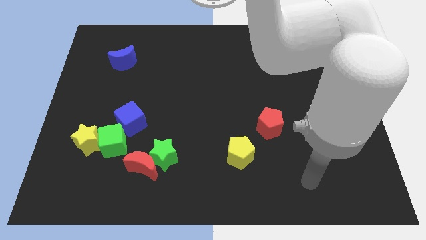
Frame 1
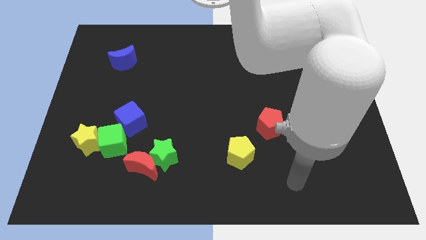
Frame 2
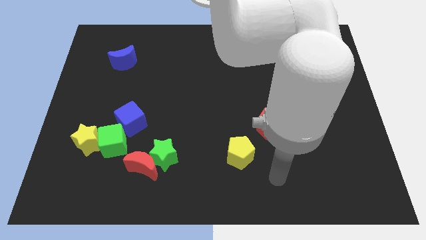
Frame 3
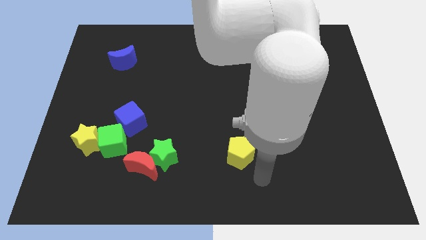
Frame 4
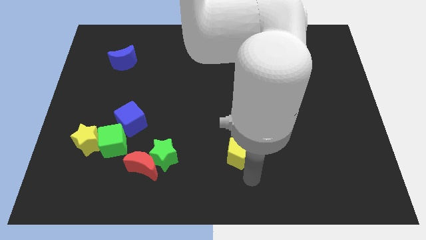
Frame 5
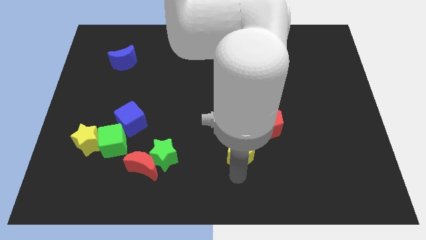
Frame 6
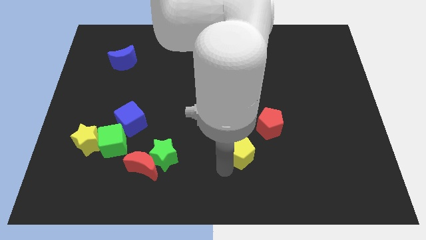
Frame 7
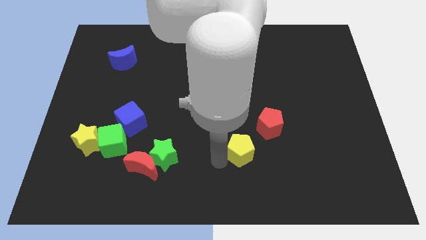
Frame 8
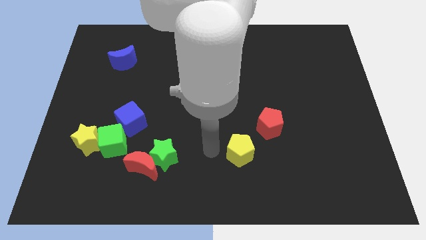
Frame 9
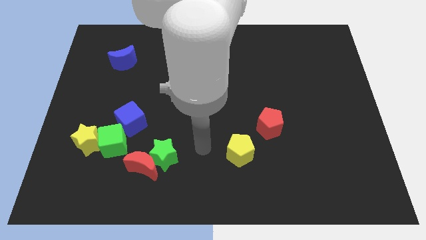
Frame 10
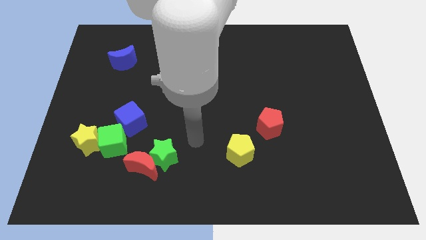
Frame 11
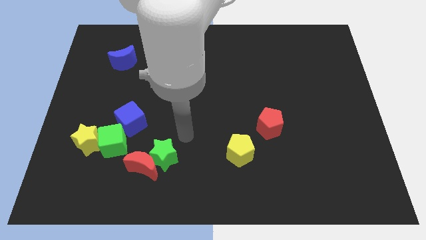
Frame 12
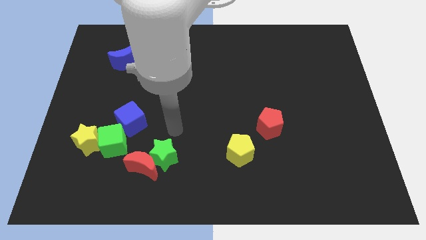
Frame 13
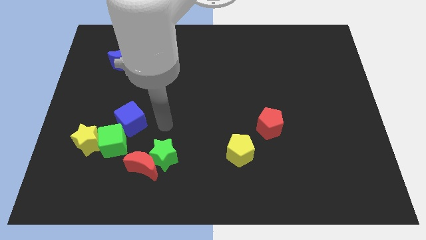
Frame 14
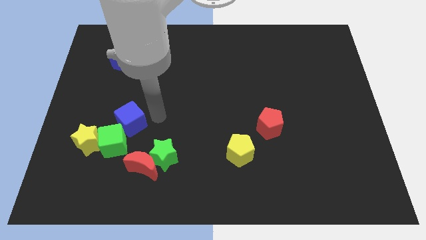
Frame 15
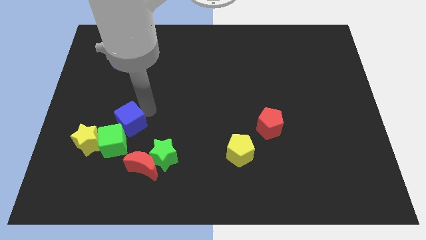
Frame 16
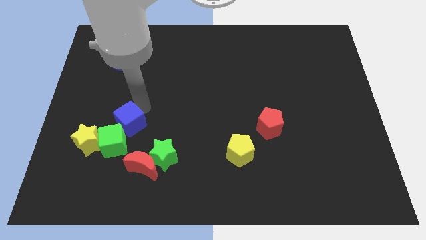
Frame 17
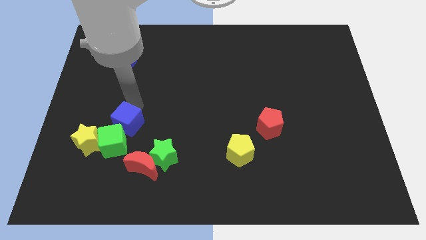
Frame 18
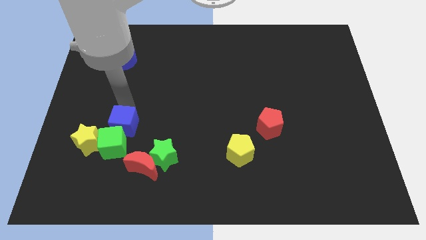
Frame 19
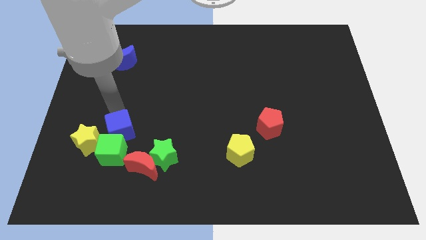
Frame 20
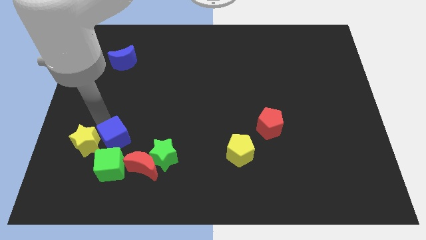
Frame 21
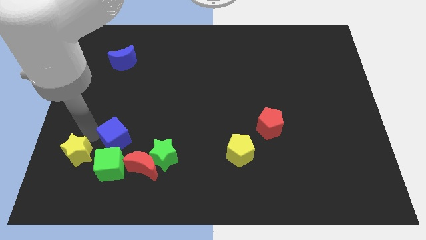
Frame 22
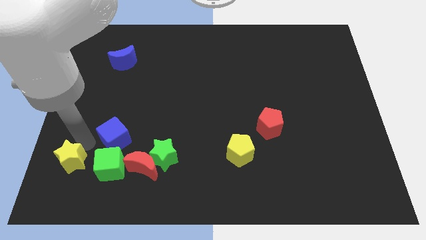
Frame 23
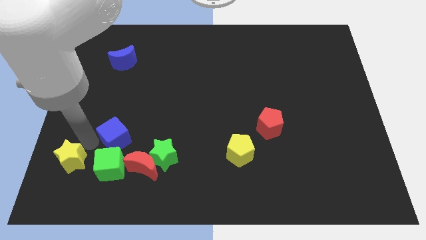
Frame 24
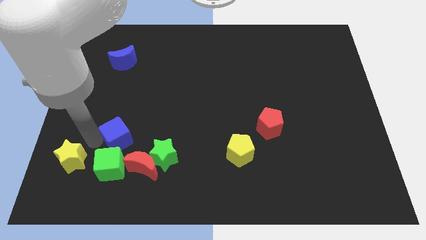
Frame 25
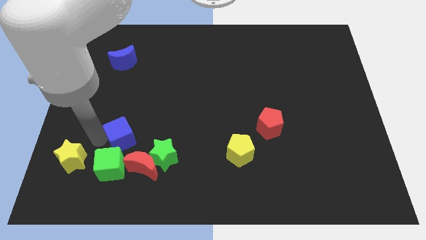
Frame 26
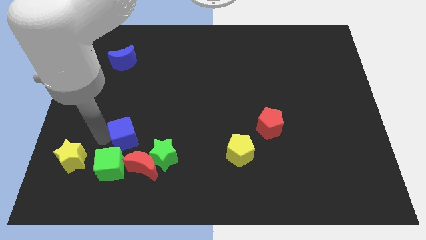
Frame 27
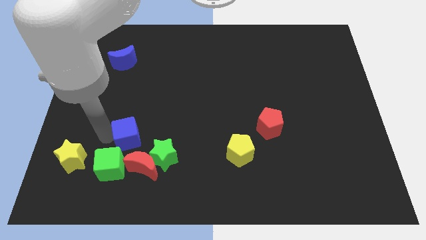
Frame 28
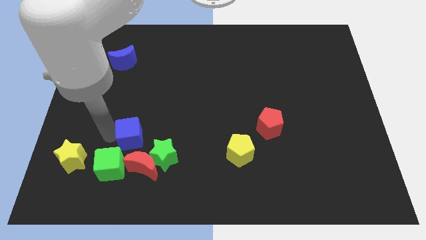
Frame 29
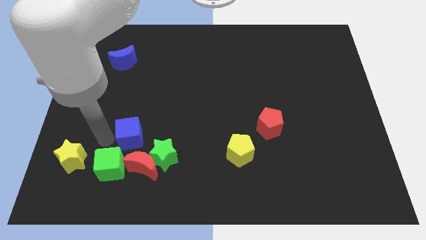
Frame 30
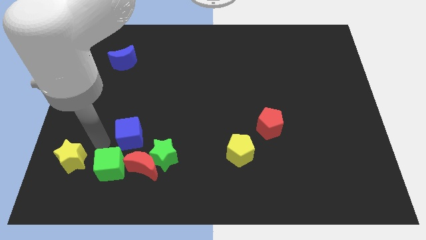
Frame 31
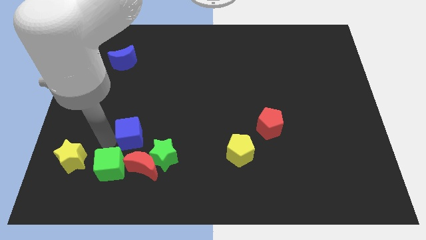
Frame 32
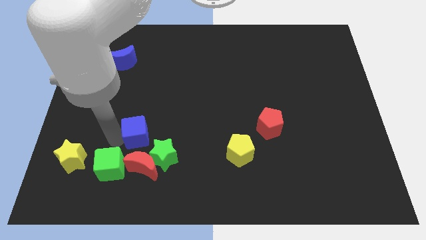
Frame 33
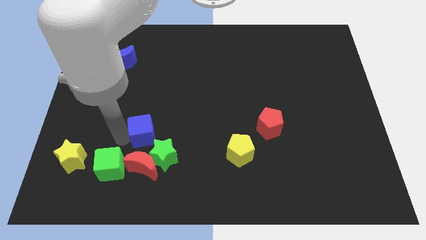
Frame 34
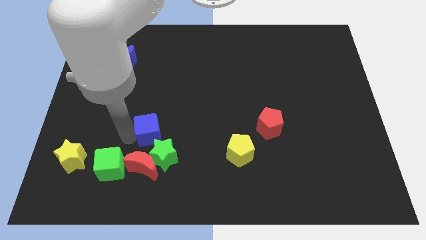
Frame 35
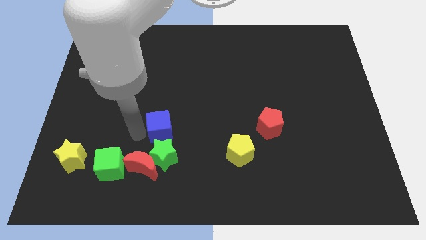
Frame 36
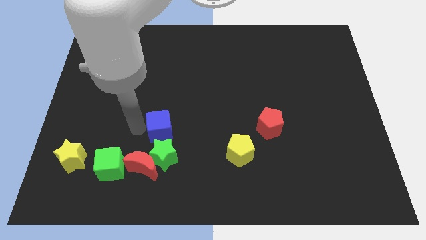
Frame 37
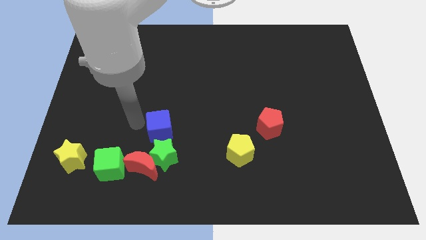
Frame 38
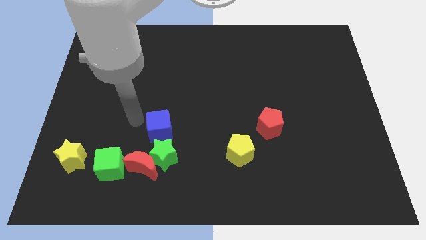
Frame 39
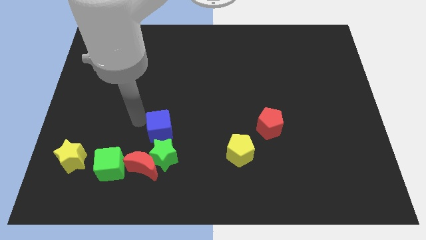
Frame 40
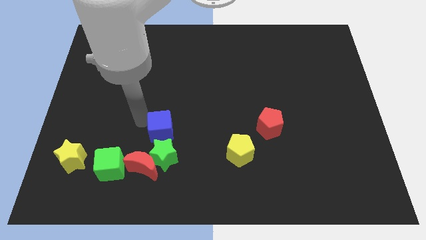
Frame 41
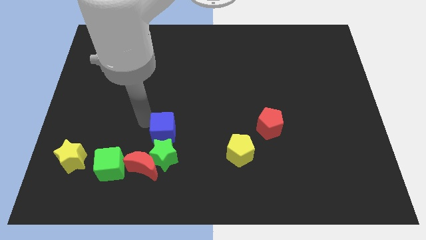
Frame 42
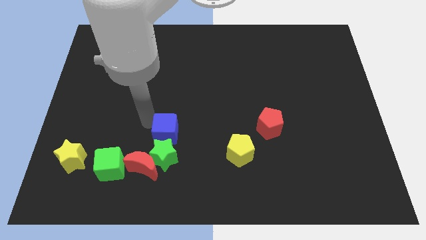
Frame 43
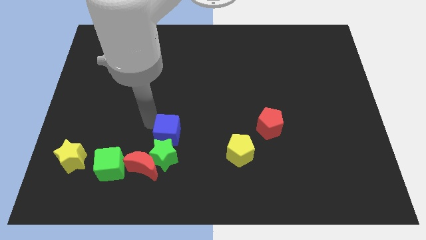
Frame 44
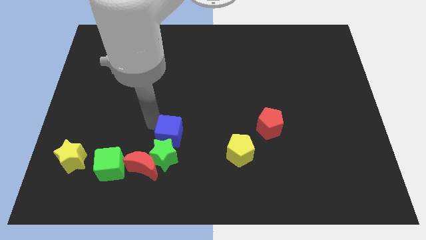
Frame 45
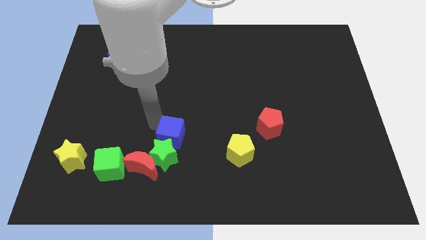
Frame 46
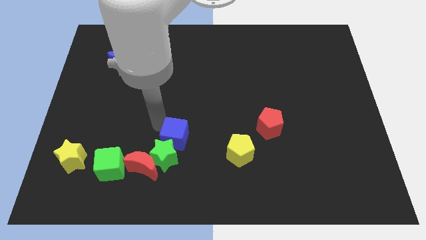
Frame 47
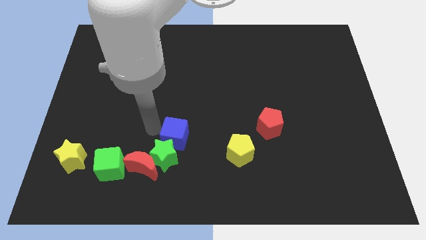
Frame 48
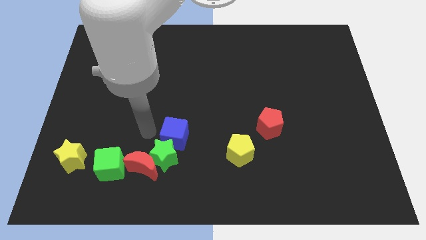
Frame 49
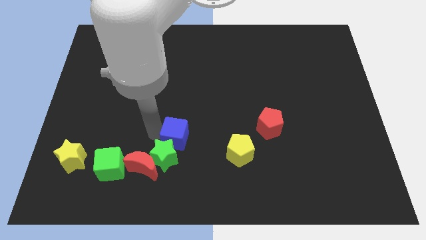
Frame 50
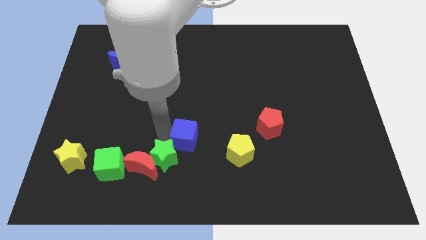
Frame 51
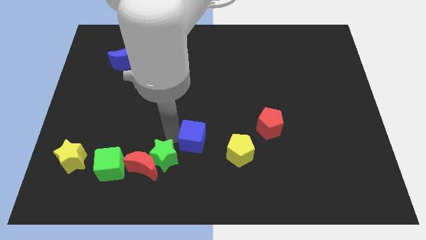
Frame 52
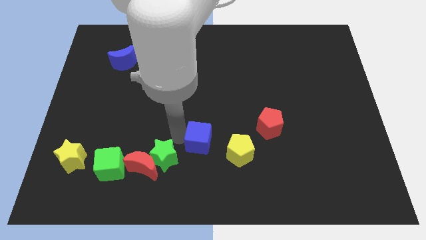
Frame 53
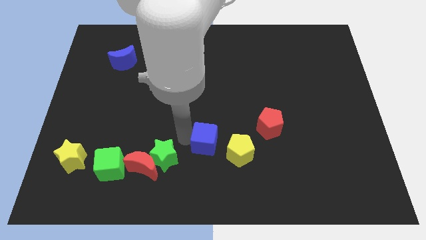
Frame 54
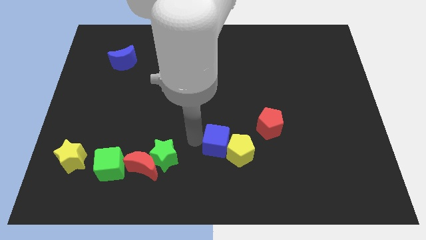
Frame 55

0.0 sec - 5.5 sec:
put the blue cube towards the yellow pentagon

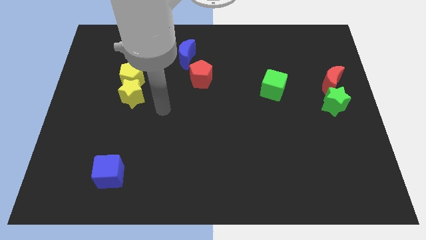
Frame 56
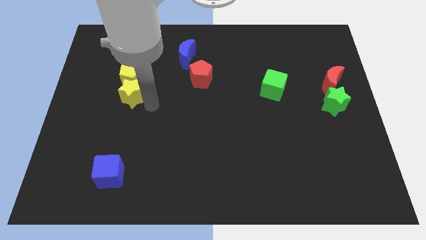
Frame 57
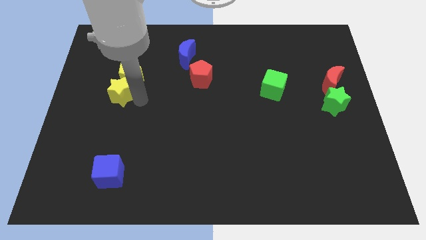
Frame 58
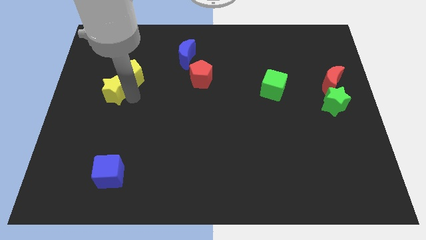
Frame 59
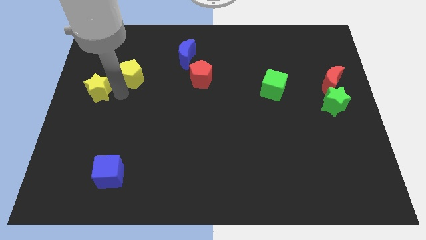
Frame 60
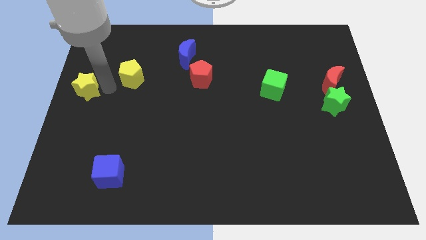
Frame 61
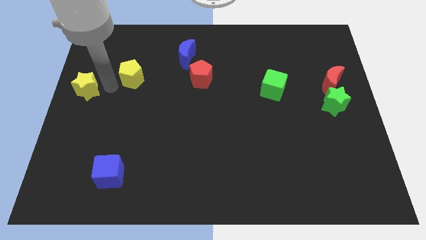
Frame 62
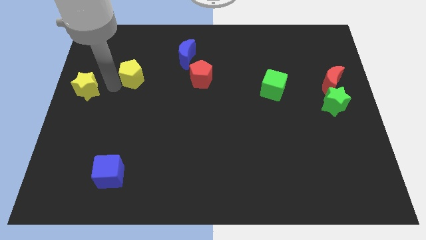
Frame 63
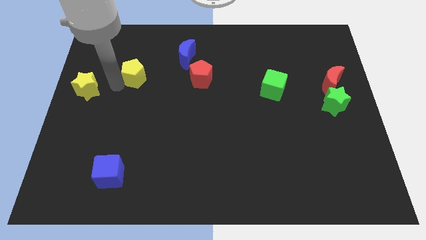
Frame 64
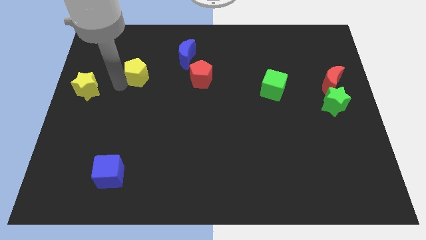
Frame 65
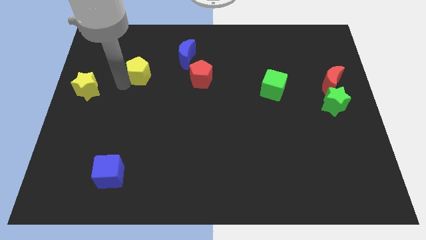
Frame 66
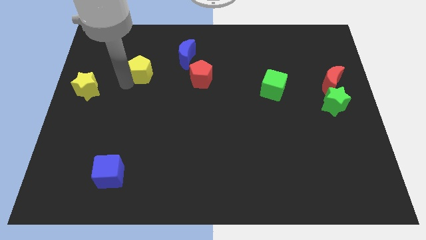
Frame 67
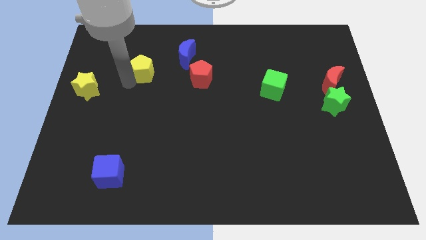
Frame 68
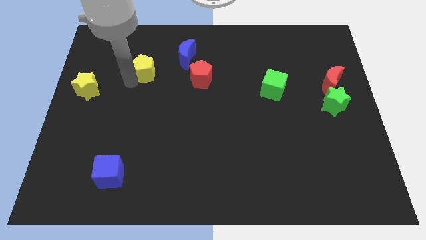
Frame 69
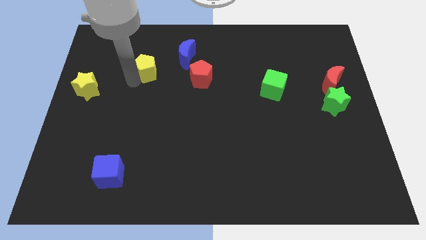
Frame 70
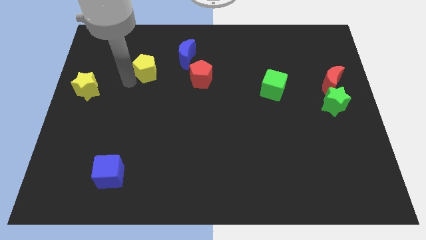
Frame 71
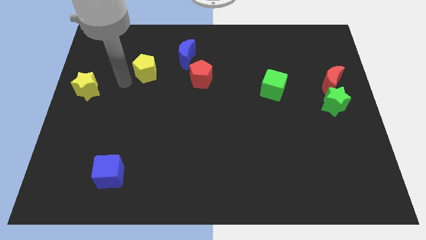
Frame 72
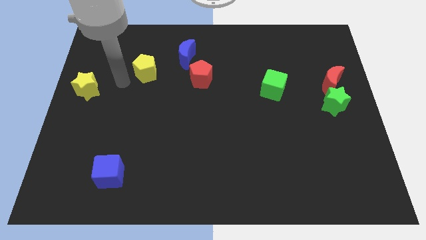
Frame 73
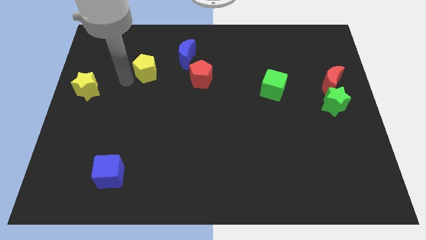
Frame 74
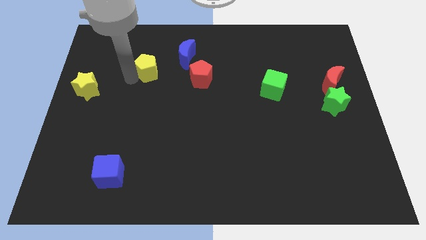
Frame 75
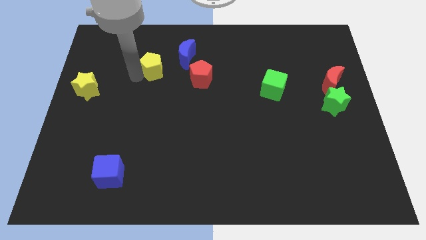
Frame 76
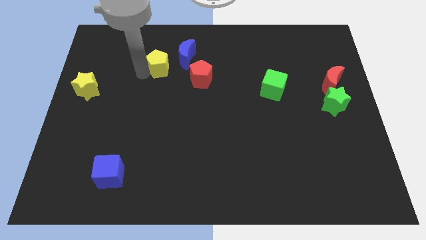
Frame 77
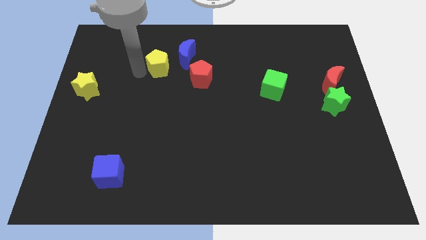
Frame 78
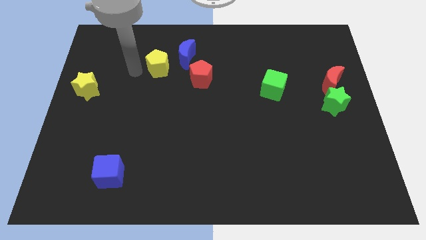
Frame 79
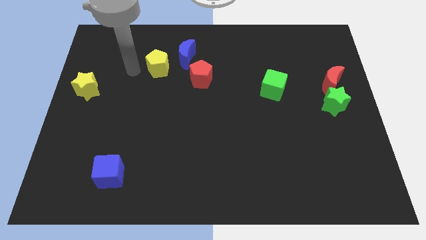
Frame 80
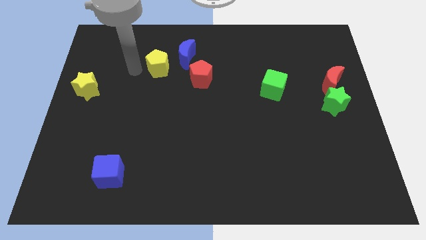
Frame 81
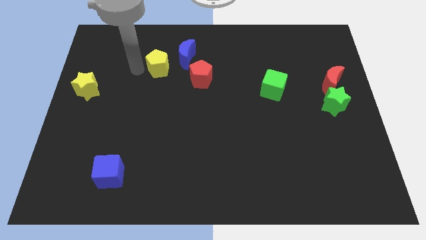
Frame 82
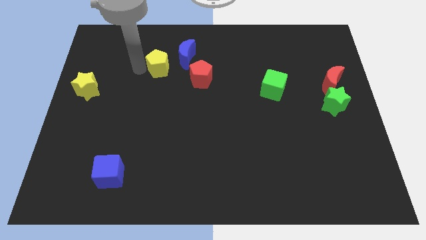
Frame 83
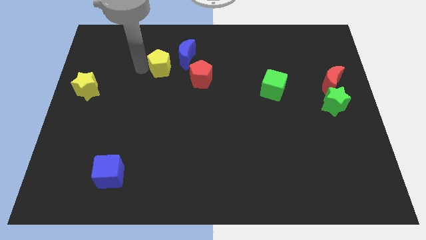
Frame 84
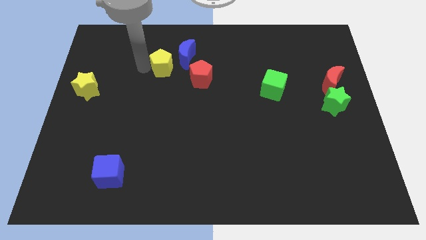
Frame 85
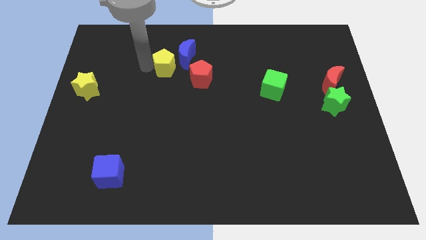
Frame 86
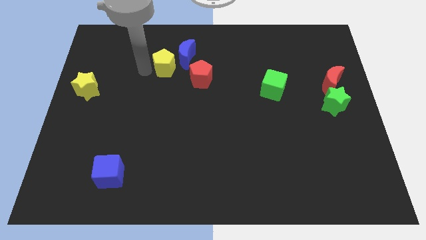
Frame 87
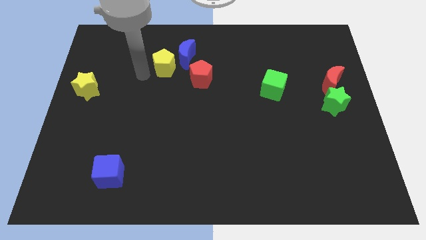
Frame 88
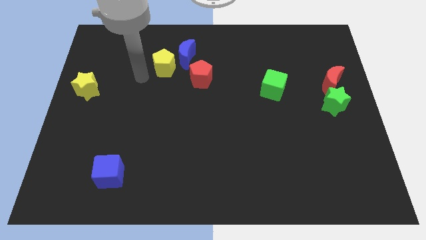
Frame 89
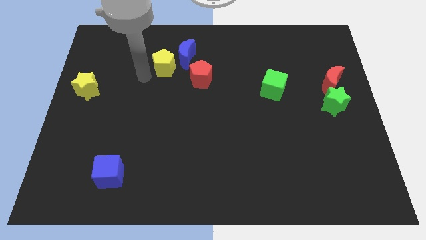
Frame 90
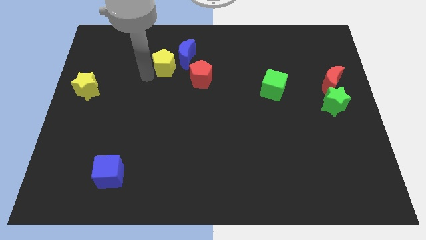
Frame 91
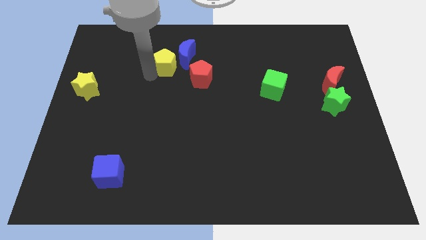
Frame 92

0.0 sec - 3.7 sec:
move the yellow pentagon towards the blue moon
